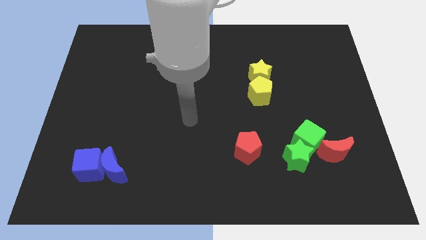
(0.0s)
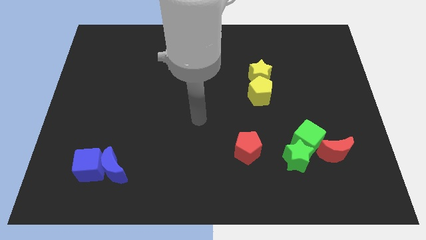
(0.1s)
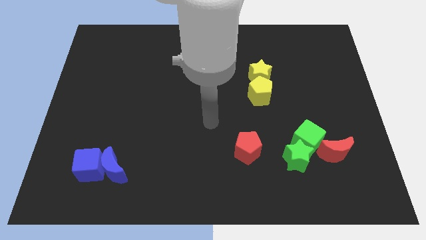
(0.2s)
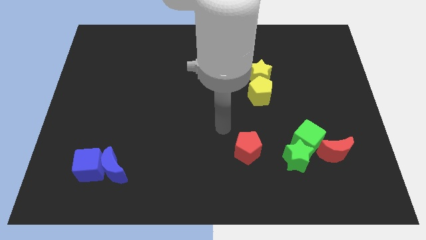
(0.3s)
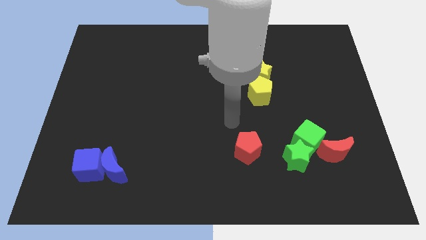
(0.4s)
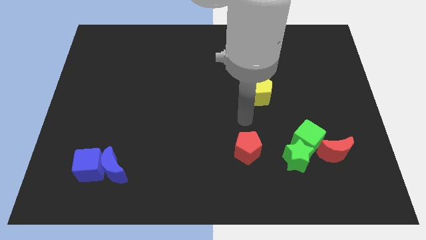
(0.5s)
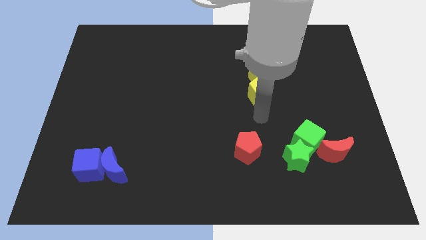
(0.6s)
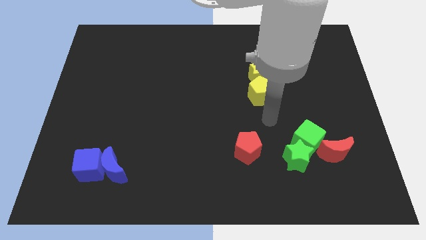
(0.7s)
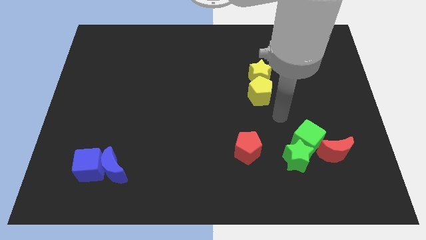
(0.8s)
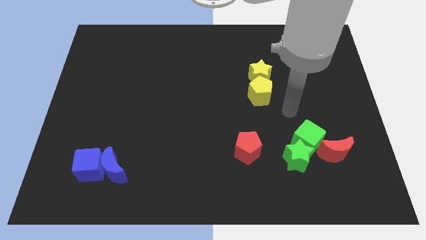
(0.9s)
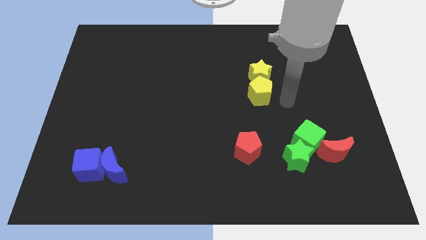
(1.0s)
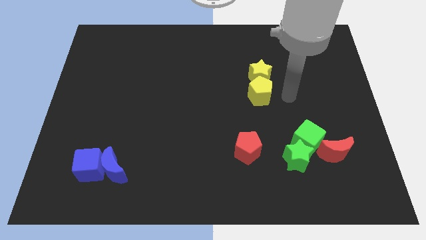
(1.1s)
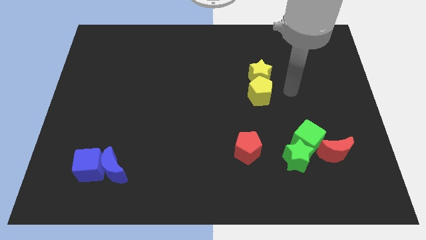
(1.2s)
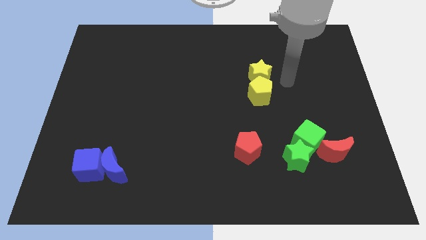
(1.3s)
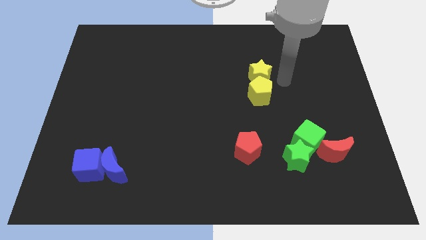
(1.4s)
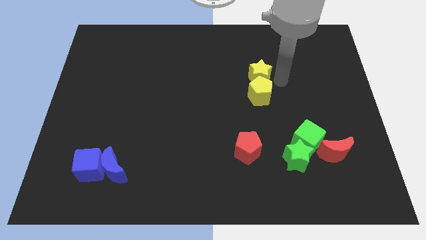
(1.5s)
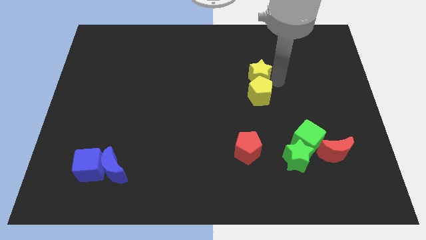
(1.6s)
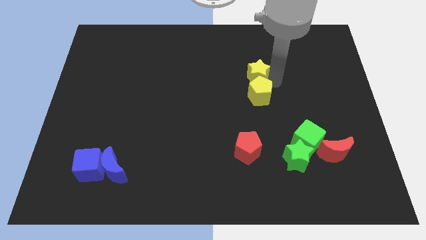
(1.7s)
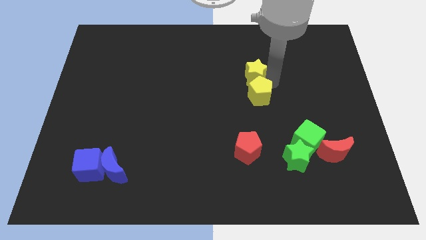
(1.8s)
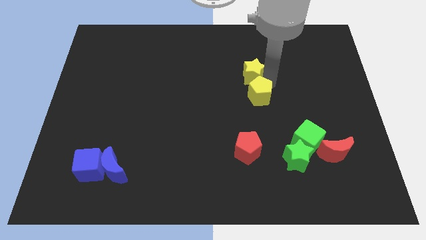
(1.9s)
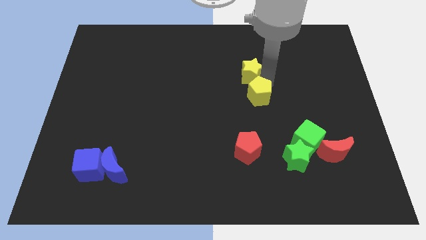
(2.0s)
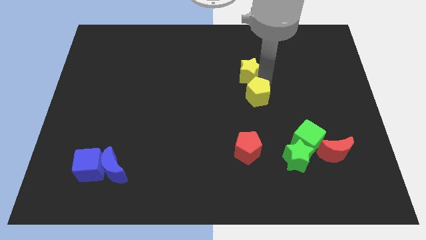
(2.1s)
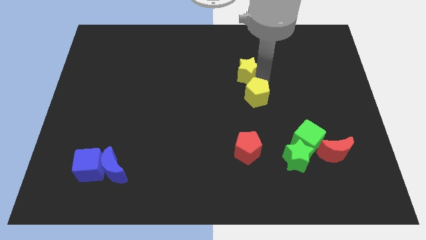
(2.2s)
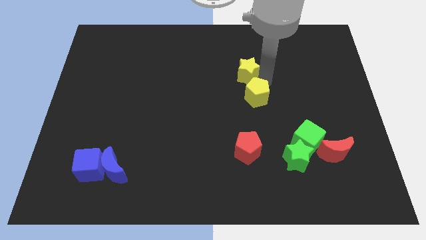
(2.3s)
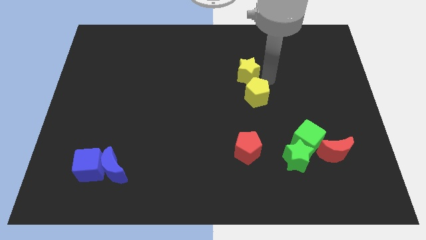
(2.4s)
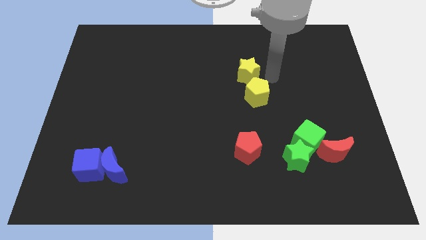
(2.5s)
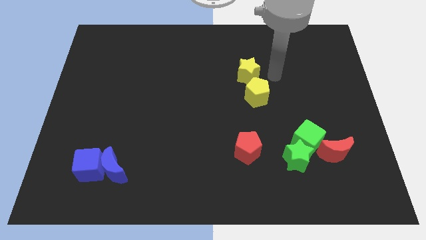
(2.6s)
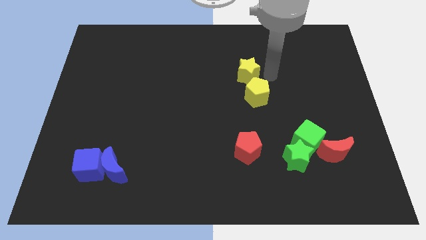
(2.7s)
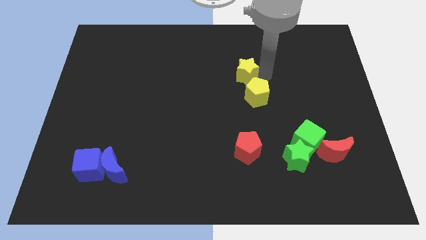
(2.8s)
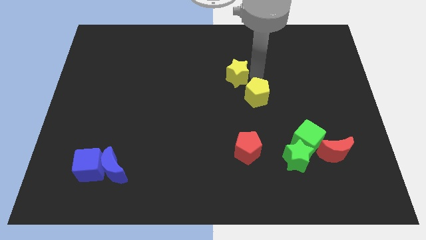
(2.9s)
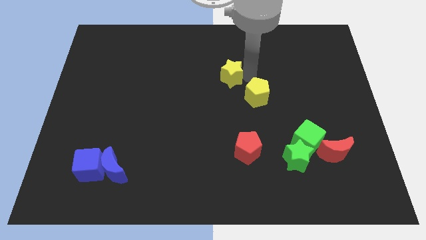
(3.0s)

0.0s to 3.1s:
move the yellow star left a little

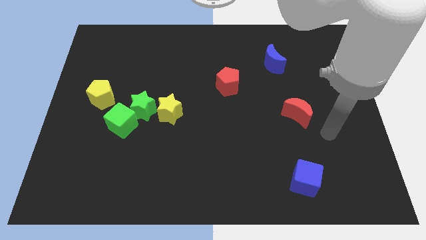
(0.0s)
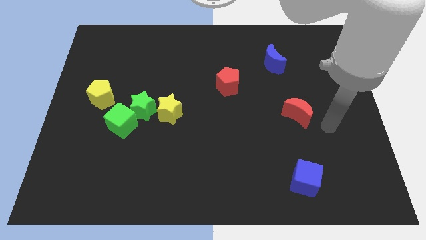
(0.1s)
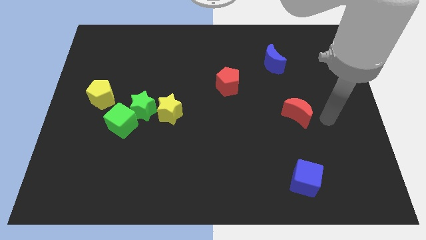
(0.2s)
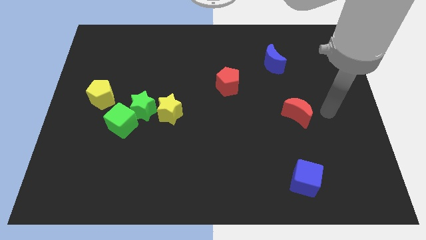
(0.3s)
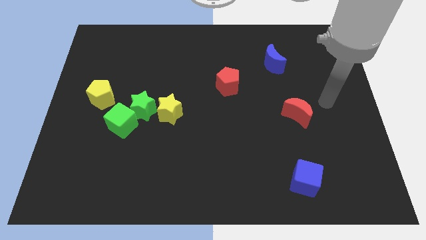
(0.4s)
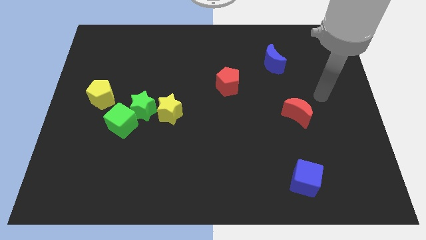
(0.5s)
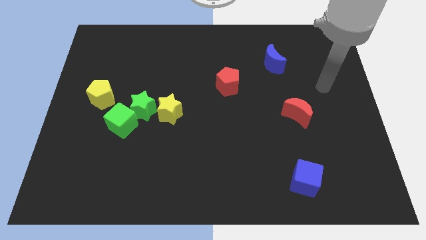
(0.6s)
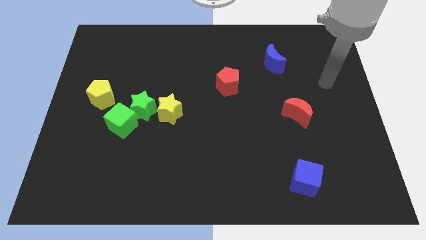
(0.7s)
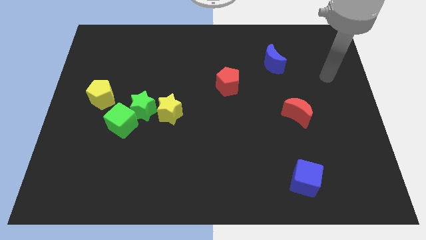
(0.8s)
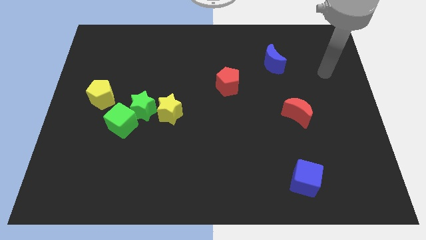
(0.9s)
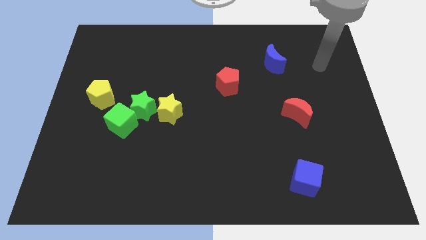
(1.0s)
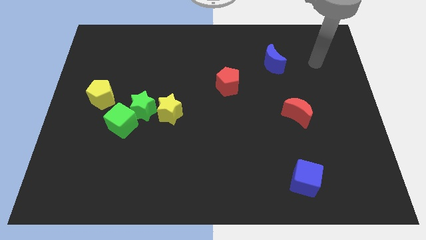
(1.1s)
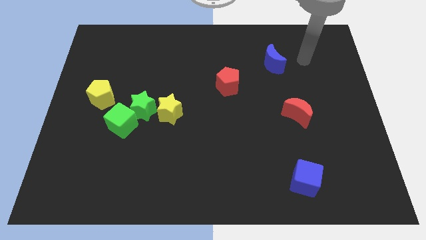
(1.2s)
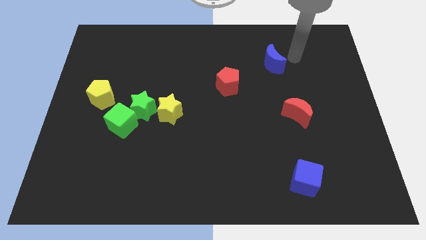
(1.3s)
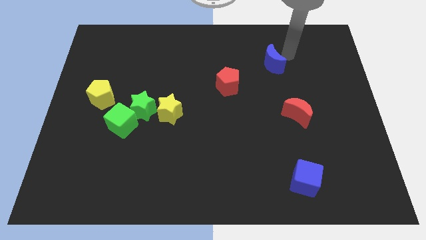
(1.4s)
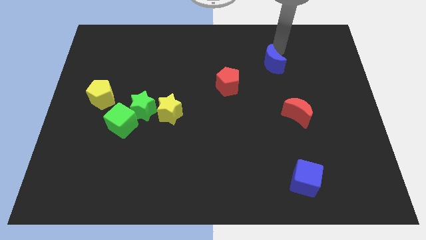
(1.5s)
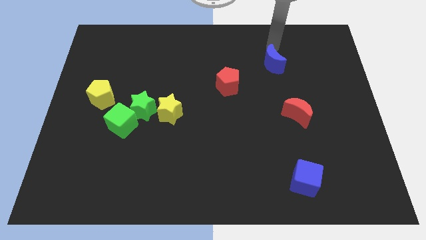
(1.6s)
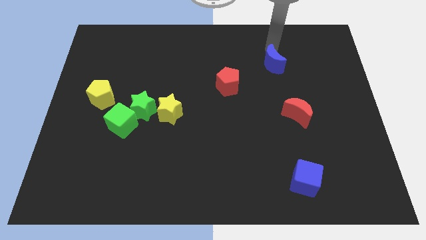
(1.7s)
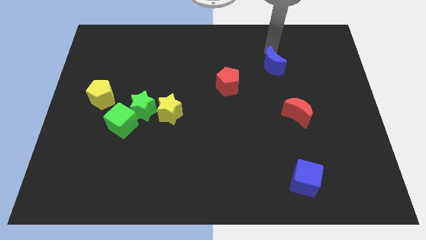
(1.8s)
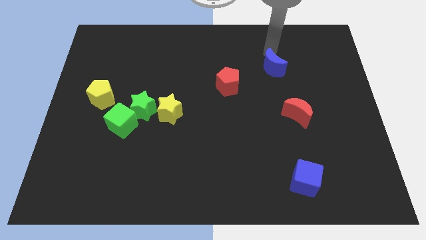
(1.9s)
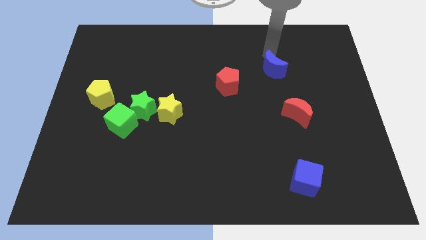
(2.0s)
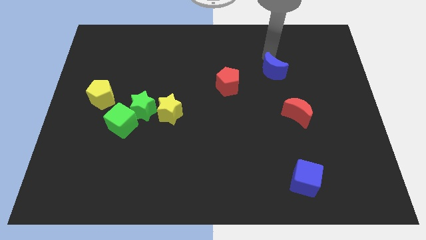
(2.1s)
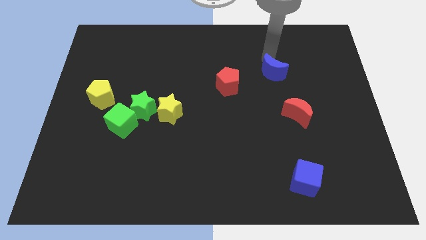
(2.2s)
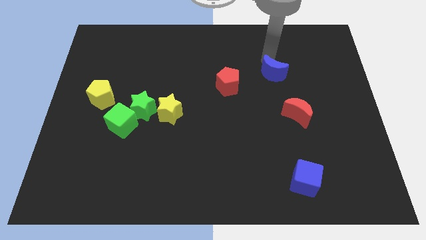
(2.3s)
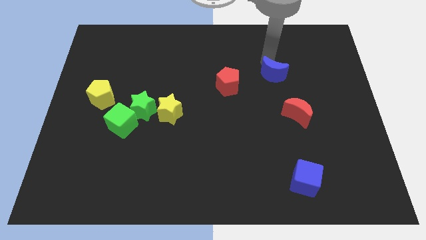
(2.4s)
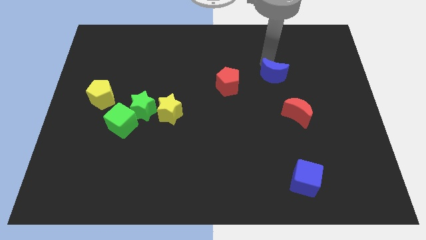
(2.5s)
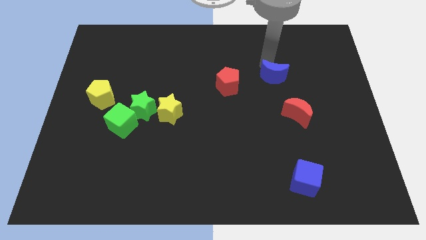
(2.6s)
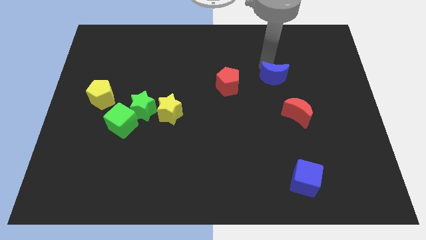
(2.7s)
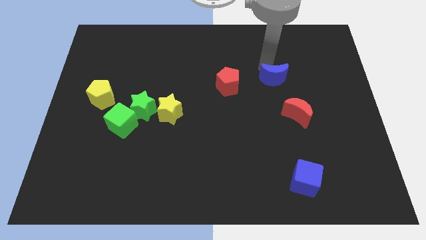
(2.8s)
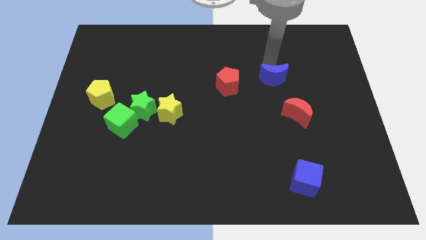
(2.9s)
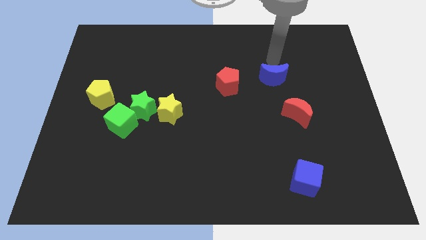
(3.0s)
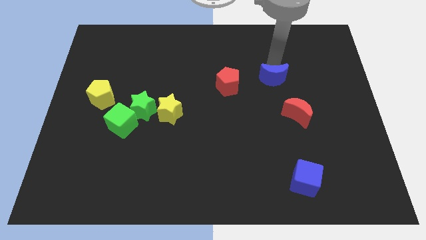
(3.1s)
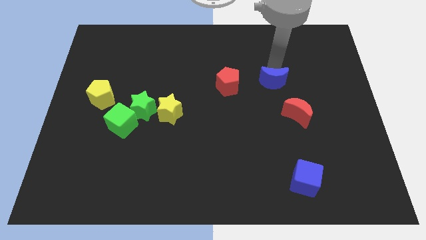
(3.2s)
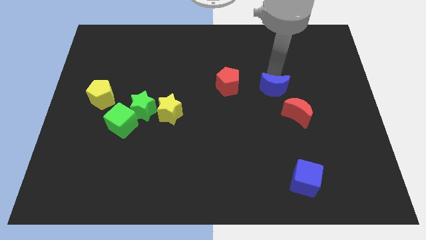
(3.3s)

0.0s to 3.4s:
push the blue moon downwards slightly

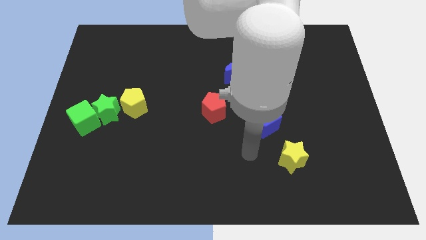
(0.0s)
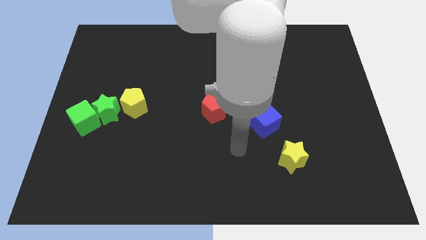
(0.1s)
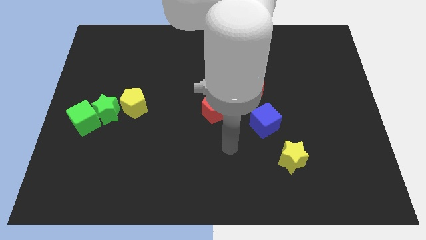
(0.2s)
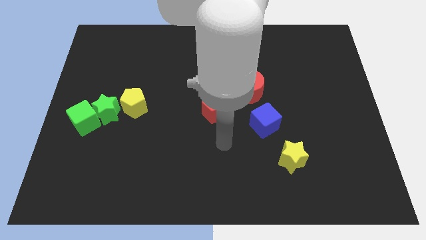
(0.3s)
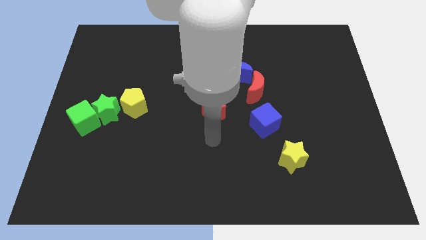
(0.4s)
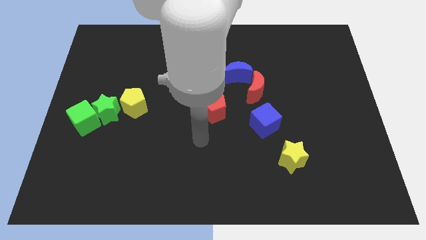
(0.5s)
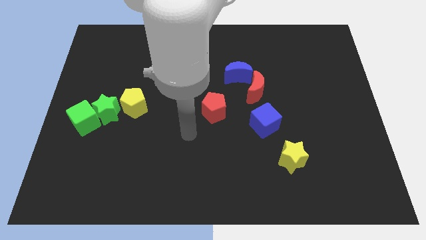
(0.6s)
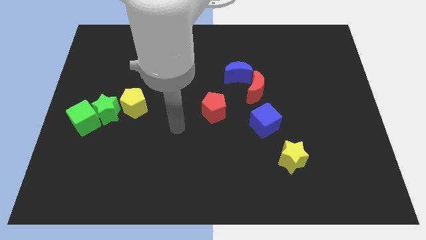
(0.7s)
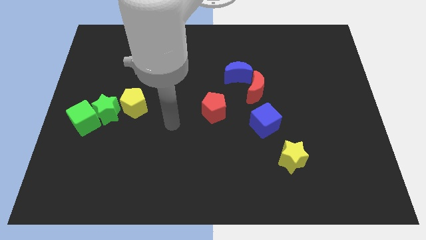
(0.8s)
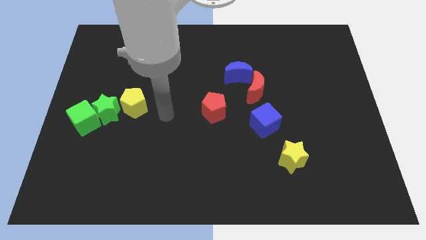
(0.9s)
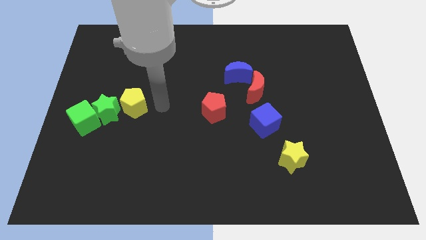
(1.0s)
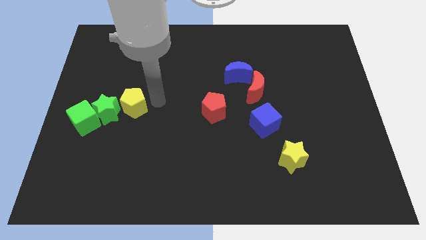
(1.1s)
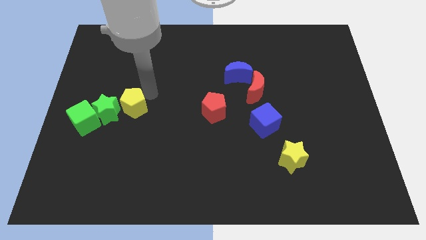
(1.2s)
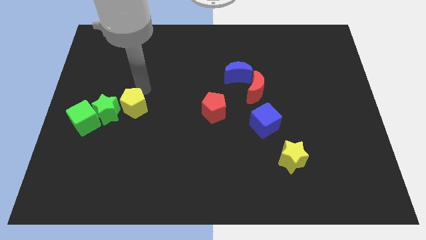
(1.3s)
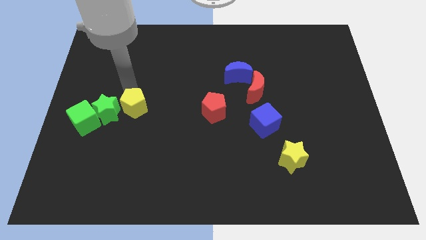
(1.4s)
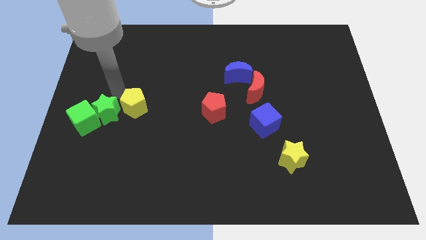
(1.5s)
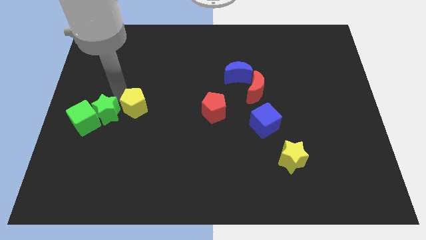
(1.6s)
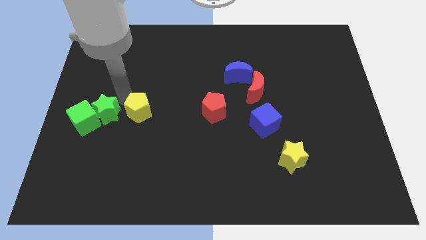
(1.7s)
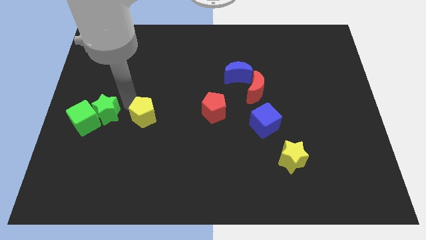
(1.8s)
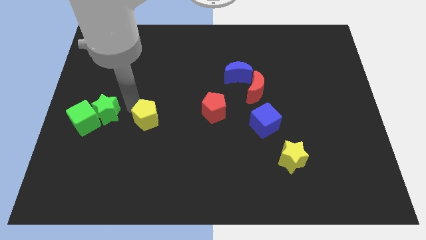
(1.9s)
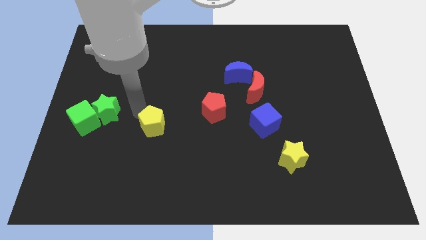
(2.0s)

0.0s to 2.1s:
slightly move the yellow pentagon downwards and right diagonally
